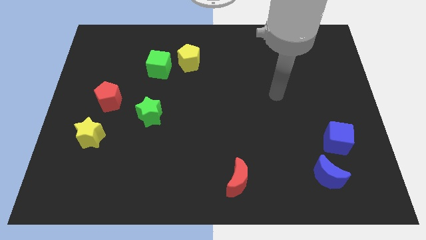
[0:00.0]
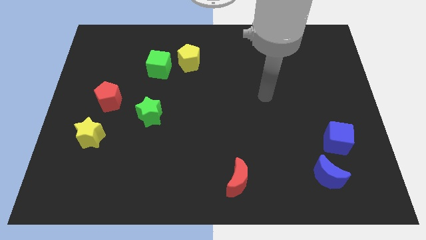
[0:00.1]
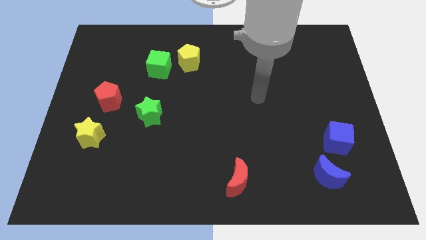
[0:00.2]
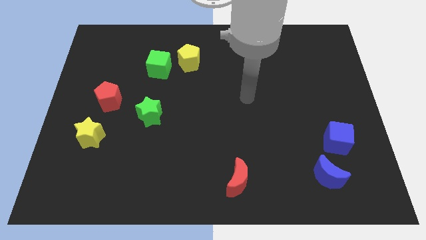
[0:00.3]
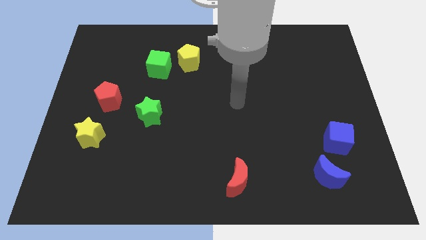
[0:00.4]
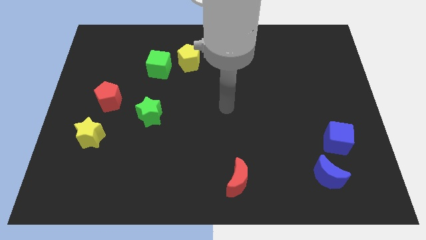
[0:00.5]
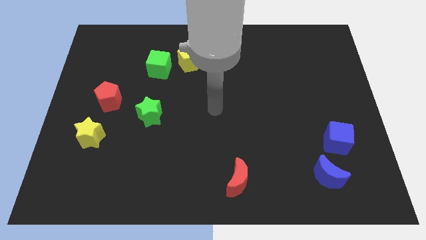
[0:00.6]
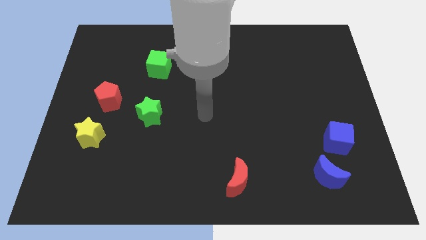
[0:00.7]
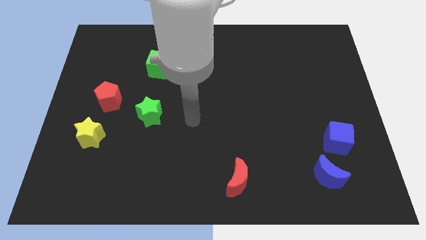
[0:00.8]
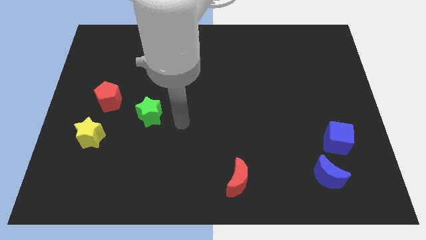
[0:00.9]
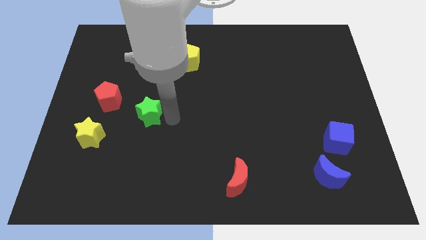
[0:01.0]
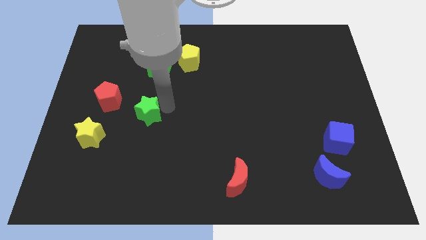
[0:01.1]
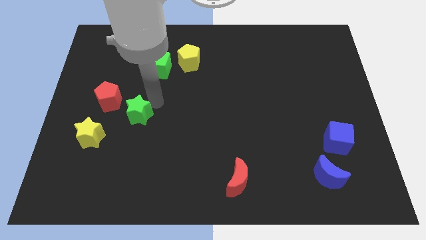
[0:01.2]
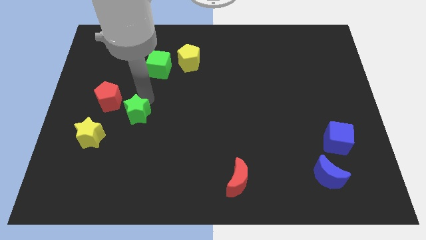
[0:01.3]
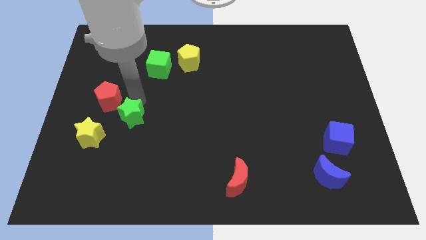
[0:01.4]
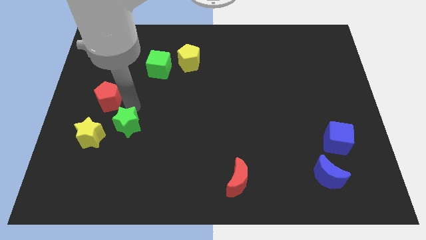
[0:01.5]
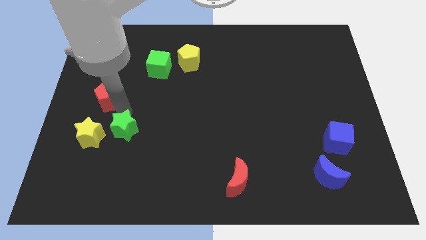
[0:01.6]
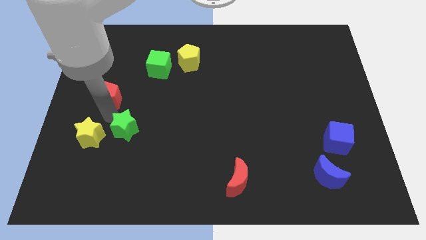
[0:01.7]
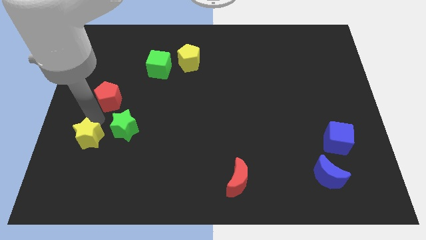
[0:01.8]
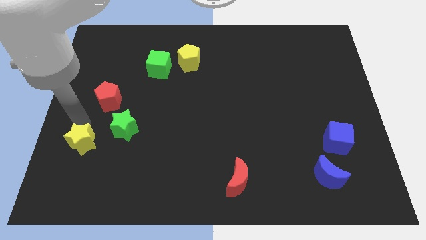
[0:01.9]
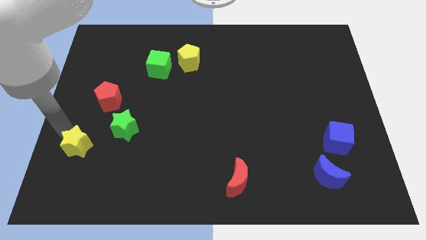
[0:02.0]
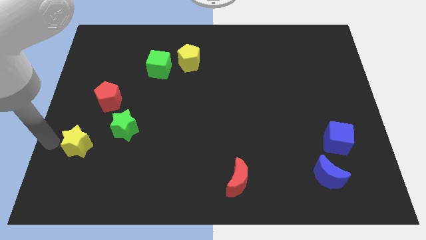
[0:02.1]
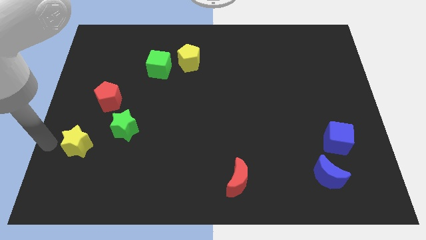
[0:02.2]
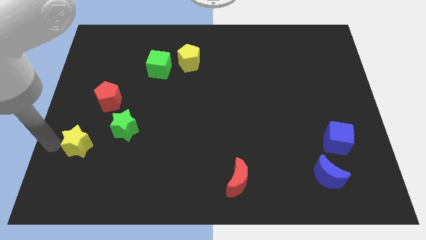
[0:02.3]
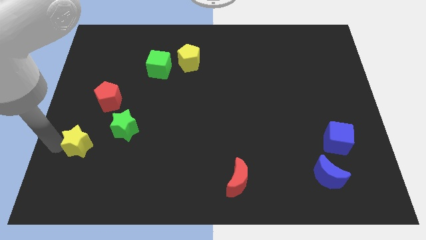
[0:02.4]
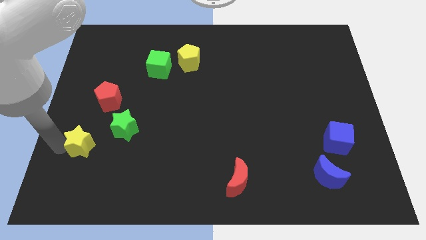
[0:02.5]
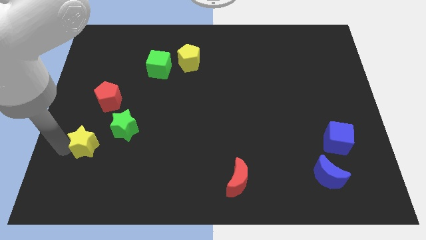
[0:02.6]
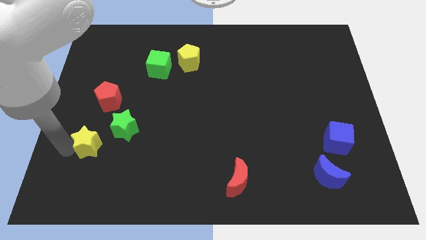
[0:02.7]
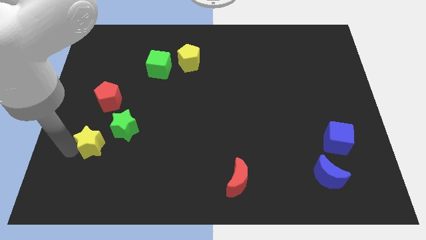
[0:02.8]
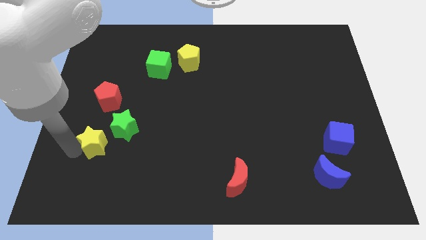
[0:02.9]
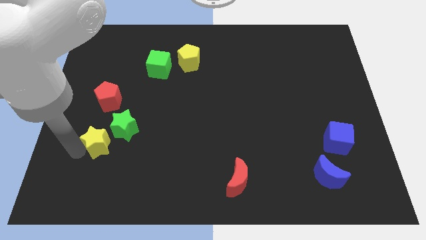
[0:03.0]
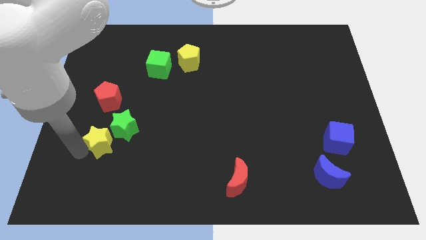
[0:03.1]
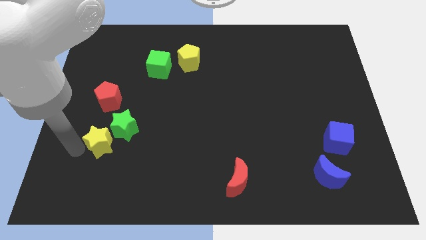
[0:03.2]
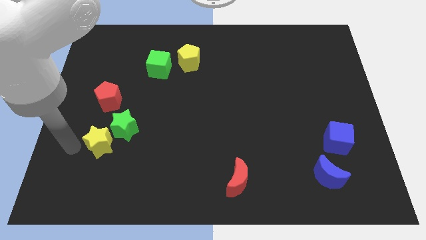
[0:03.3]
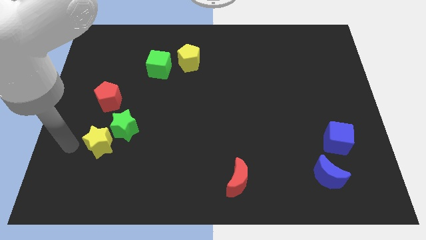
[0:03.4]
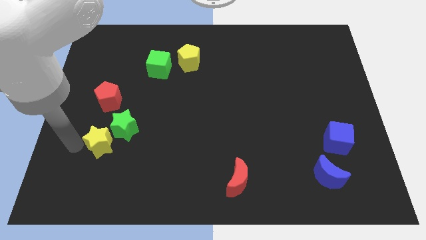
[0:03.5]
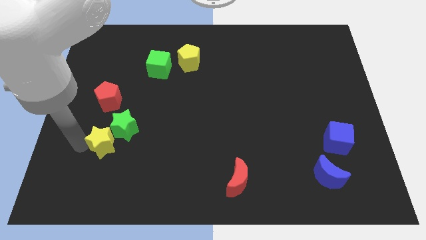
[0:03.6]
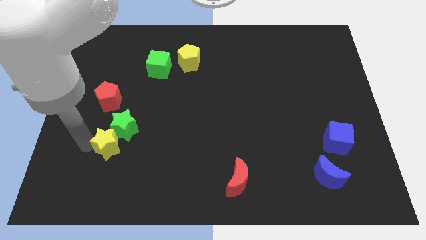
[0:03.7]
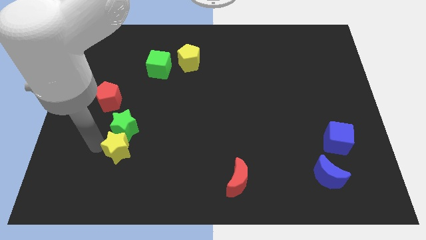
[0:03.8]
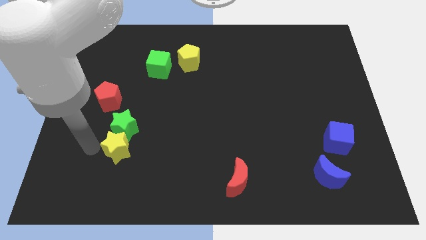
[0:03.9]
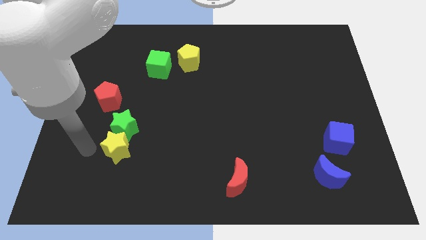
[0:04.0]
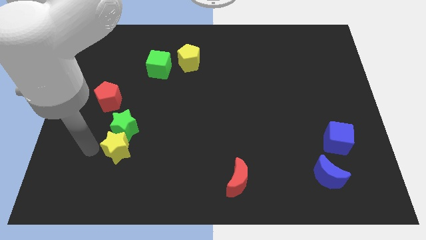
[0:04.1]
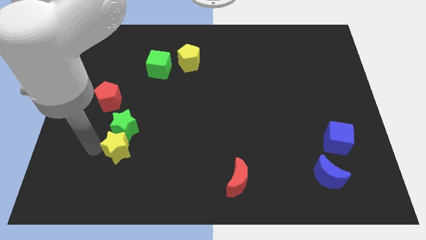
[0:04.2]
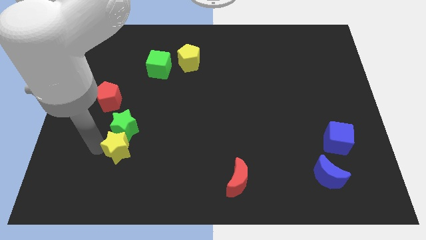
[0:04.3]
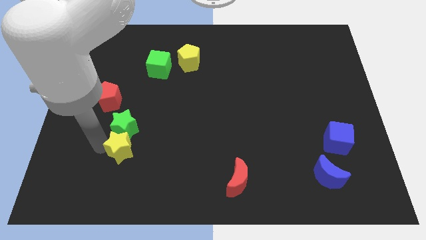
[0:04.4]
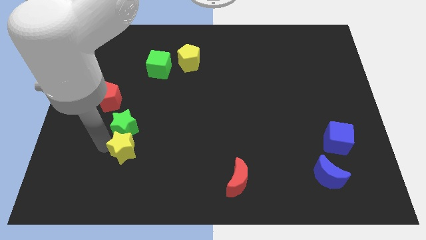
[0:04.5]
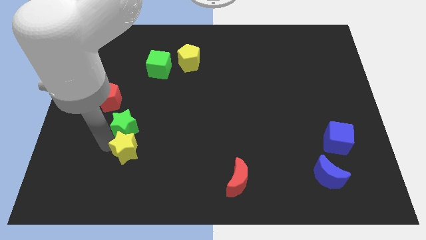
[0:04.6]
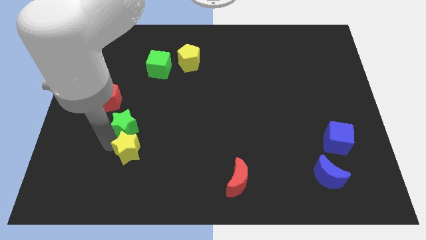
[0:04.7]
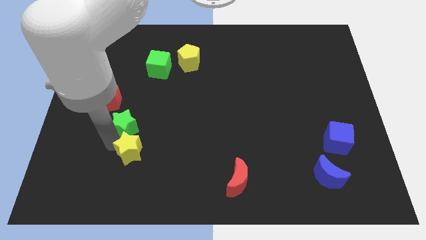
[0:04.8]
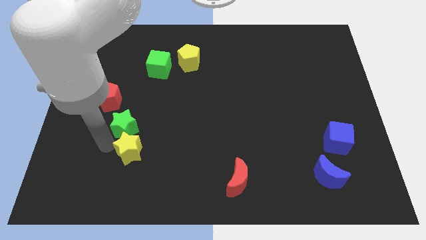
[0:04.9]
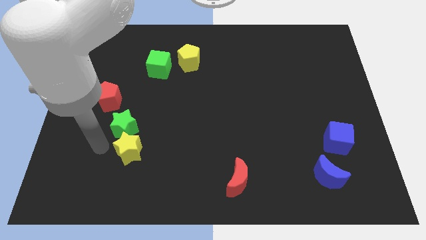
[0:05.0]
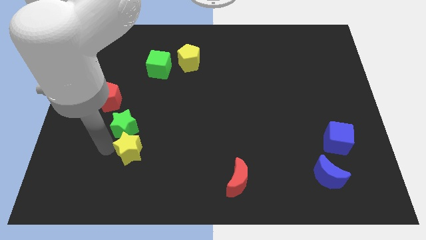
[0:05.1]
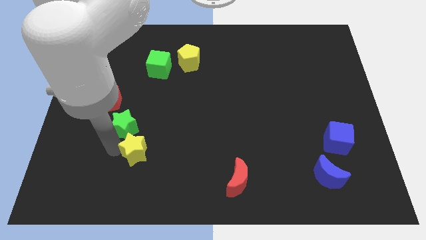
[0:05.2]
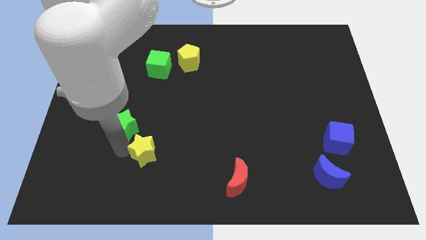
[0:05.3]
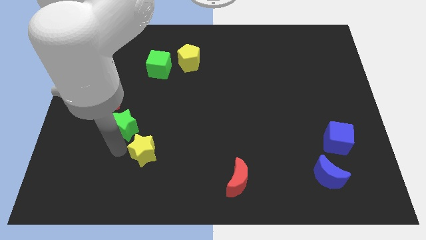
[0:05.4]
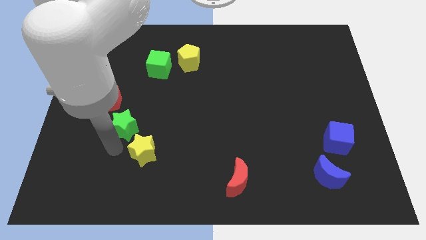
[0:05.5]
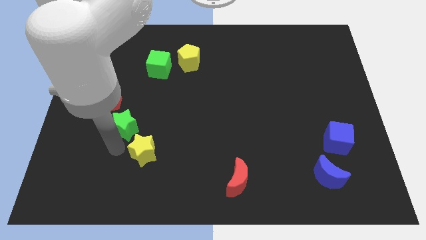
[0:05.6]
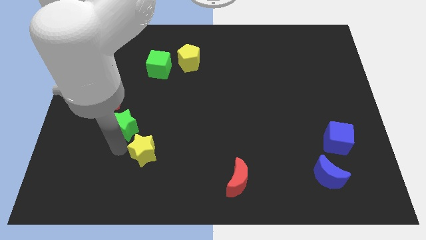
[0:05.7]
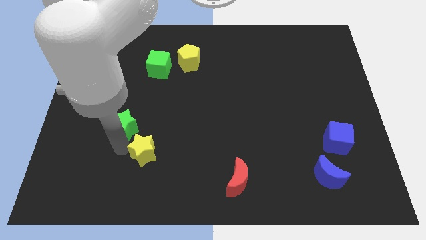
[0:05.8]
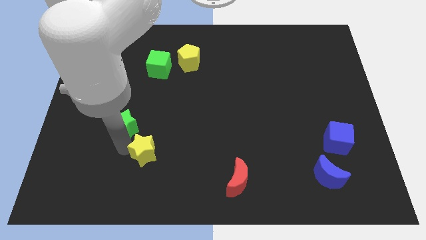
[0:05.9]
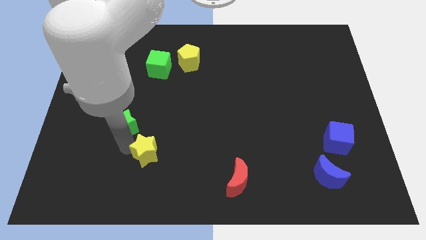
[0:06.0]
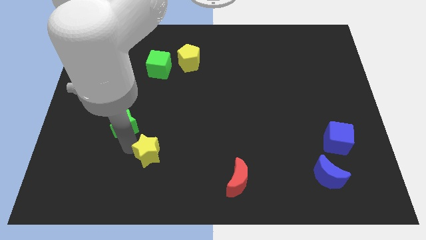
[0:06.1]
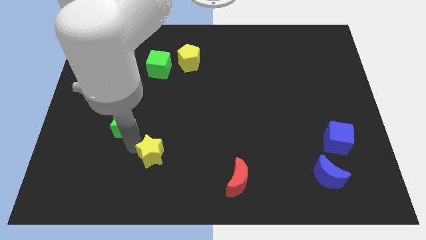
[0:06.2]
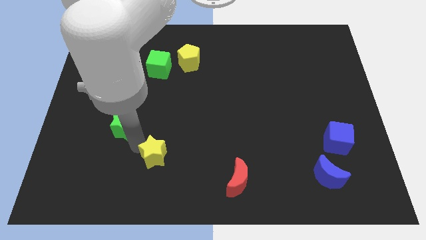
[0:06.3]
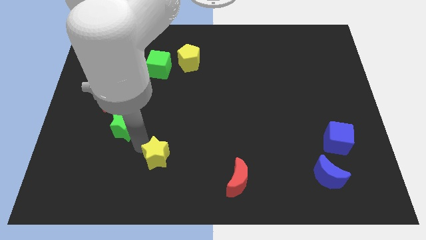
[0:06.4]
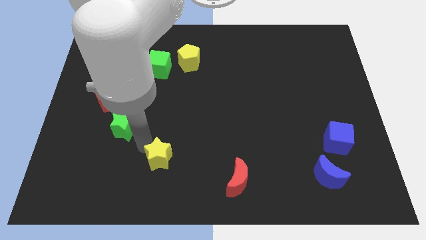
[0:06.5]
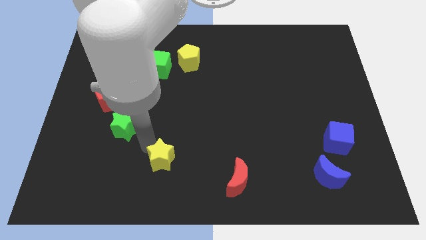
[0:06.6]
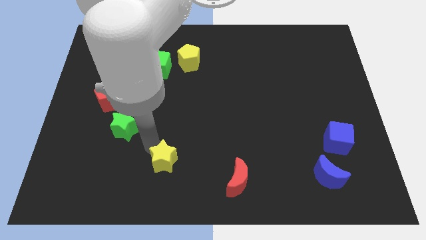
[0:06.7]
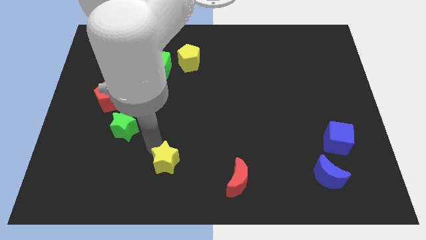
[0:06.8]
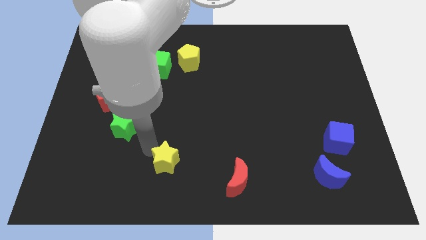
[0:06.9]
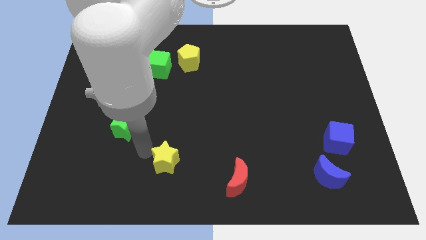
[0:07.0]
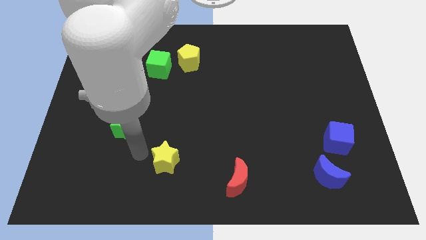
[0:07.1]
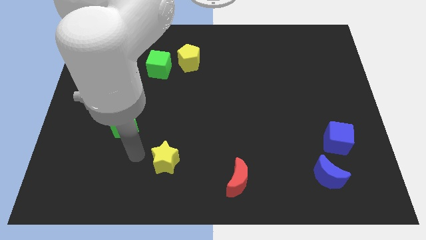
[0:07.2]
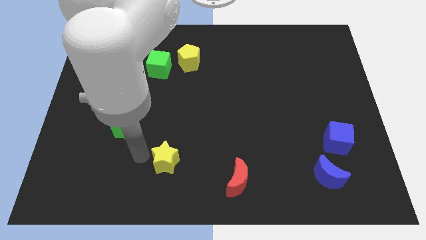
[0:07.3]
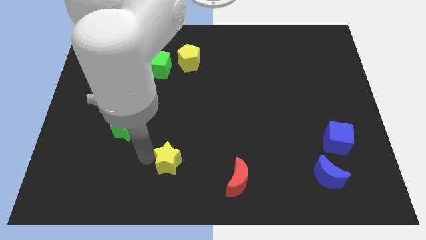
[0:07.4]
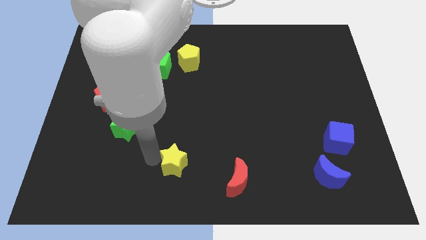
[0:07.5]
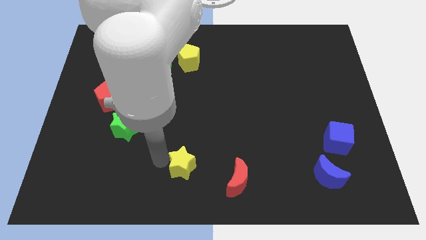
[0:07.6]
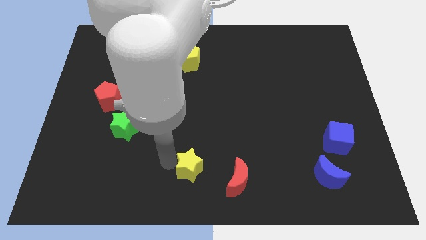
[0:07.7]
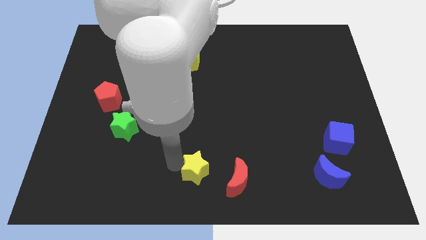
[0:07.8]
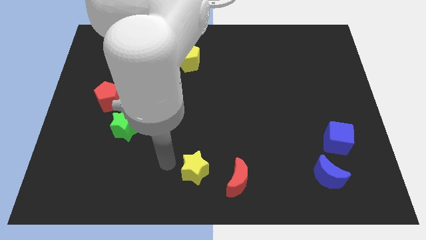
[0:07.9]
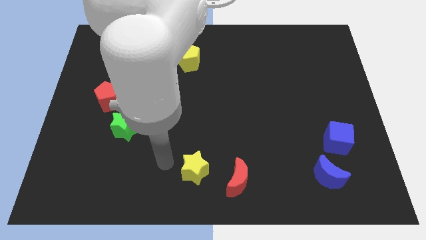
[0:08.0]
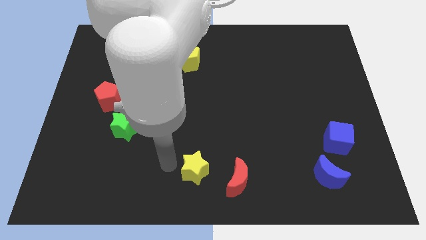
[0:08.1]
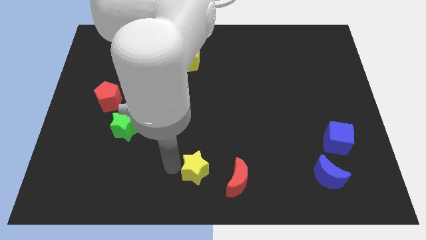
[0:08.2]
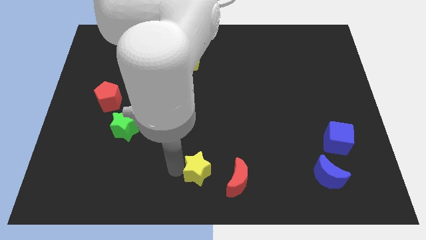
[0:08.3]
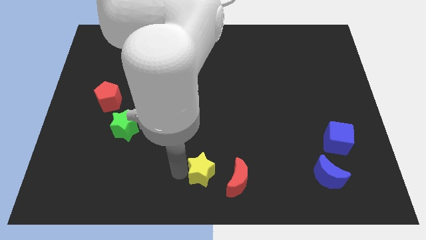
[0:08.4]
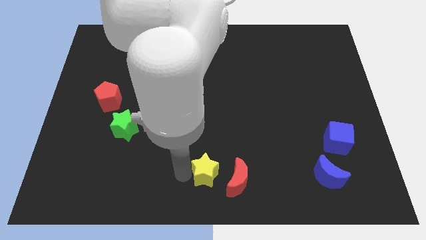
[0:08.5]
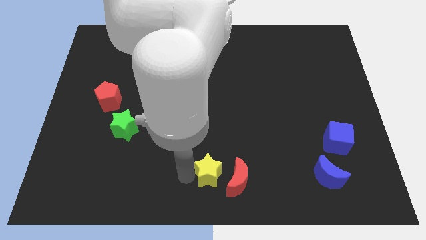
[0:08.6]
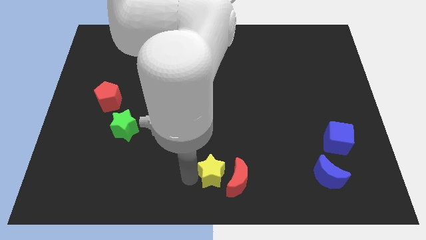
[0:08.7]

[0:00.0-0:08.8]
slide the yellow star to the red moon
